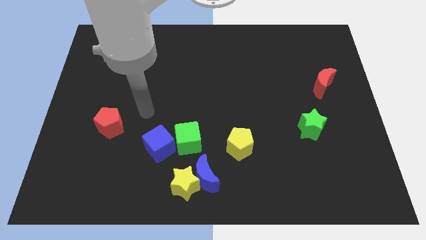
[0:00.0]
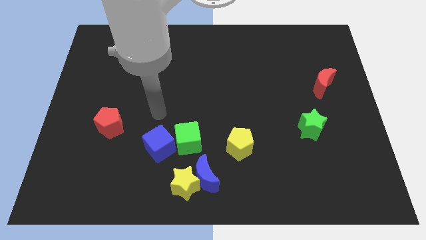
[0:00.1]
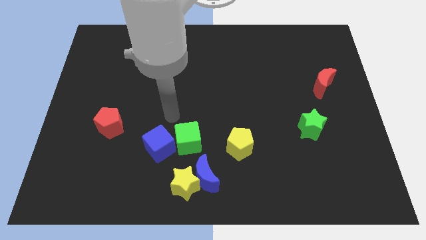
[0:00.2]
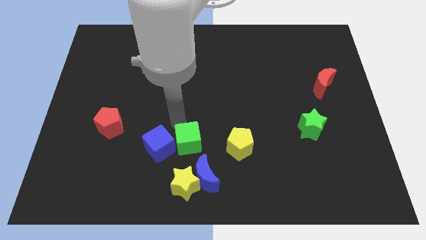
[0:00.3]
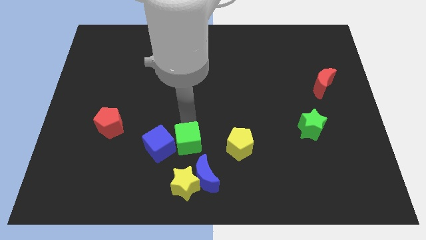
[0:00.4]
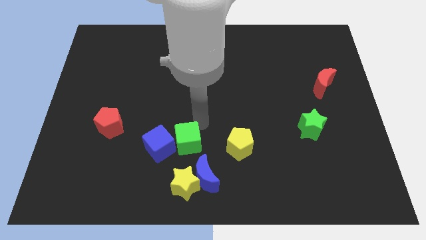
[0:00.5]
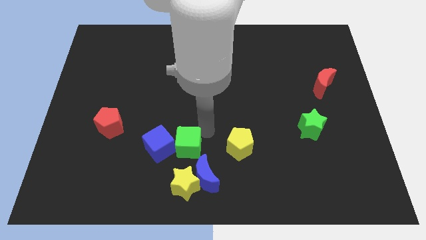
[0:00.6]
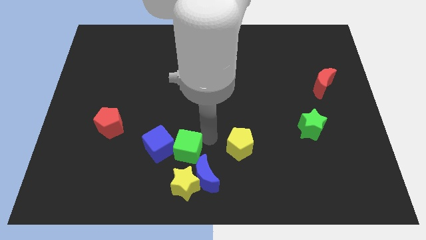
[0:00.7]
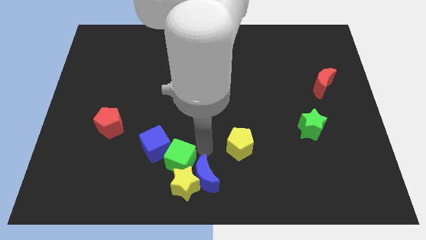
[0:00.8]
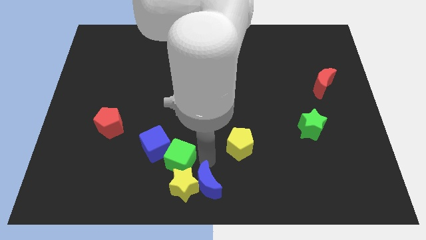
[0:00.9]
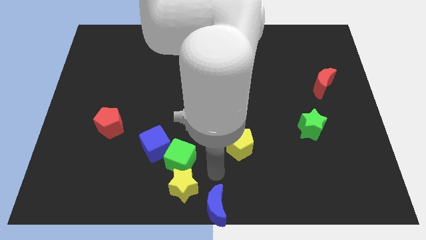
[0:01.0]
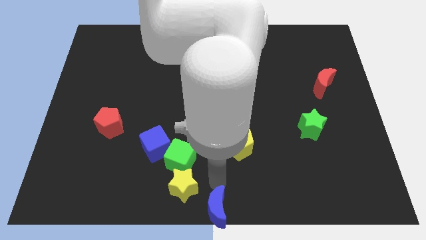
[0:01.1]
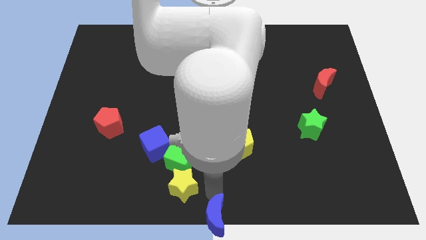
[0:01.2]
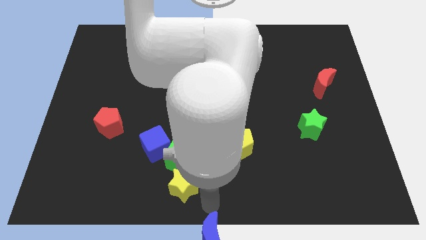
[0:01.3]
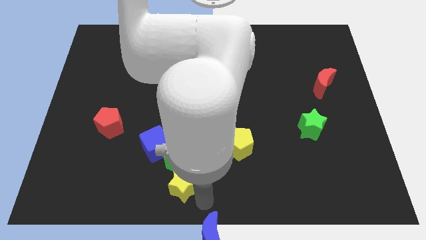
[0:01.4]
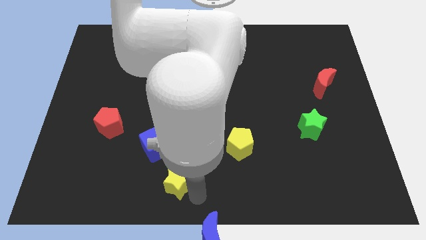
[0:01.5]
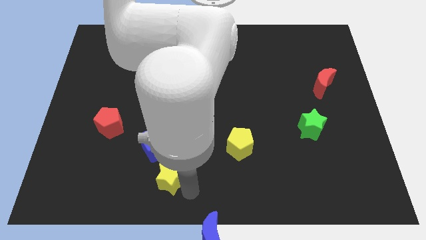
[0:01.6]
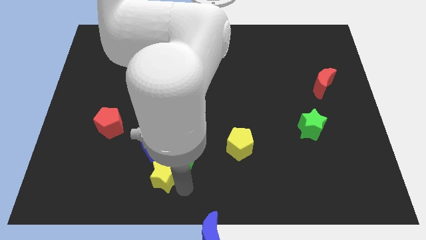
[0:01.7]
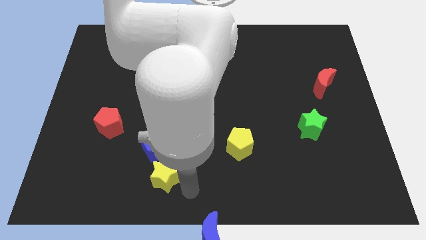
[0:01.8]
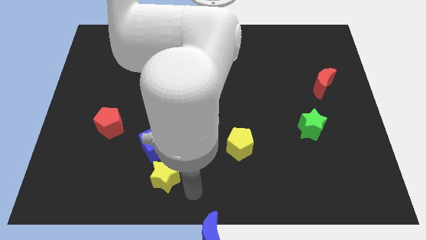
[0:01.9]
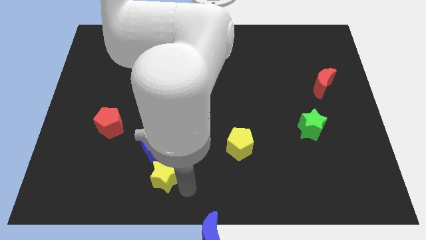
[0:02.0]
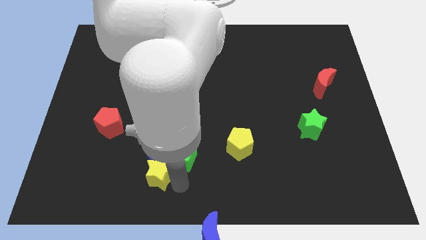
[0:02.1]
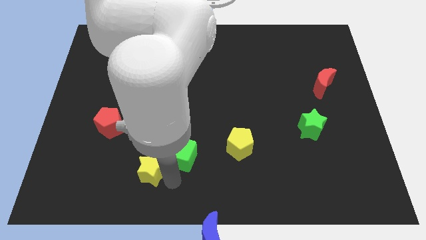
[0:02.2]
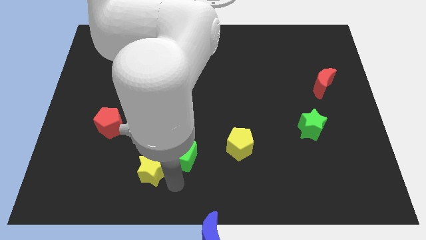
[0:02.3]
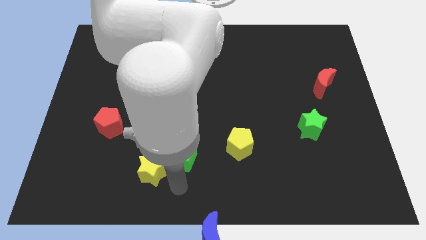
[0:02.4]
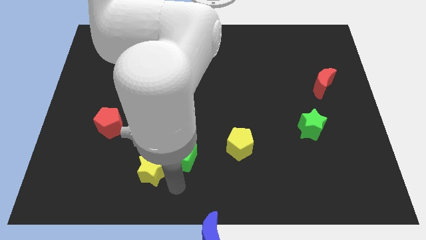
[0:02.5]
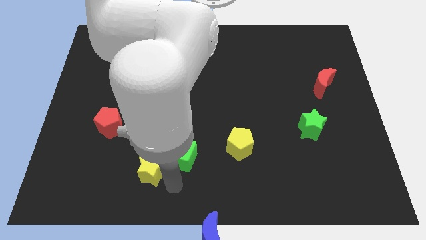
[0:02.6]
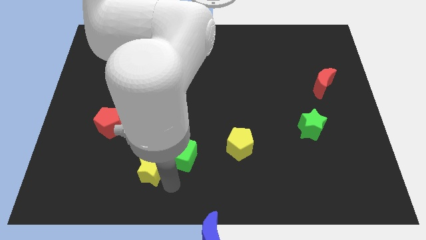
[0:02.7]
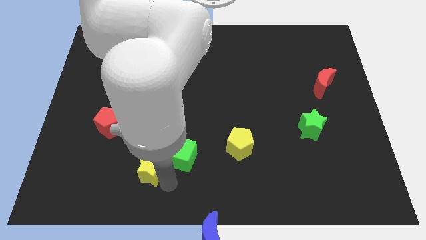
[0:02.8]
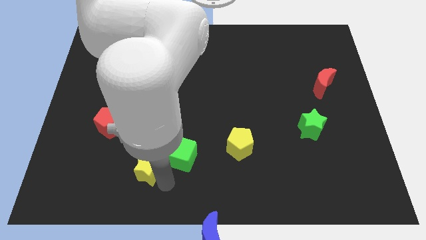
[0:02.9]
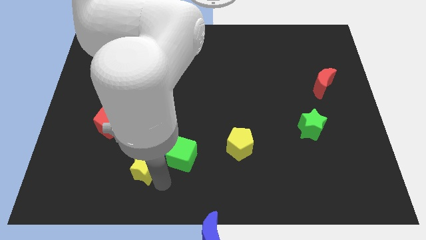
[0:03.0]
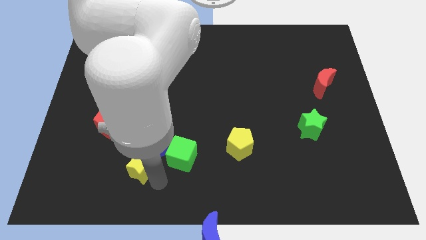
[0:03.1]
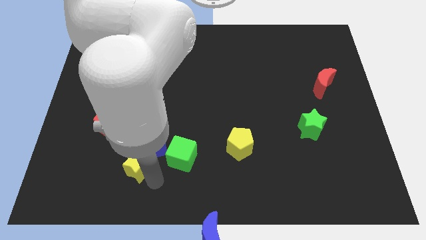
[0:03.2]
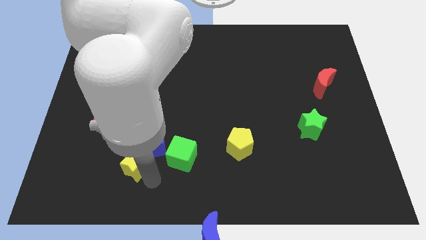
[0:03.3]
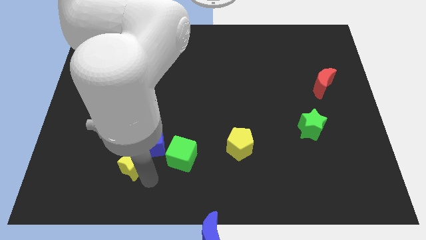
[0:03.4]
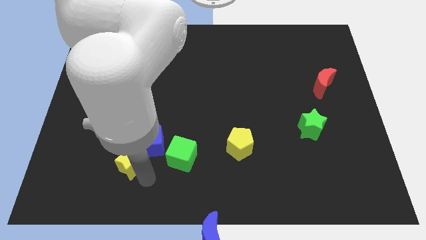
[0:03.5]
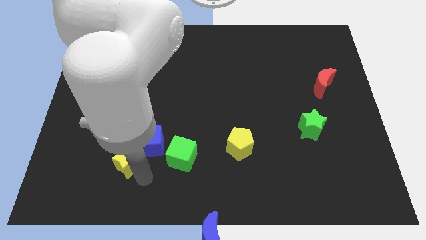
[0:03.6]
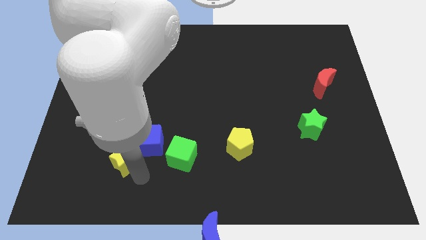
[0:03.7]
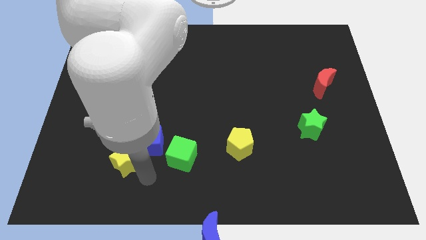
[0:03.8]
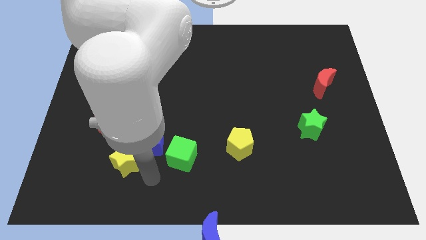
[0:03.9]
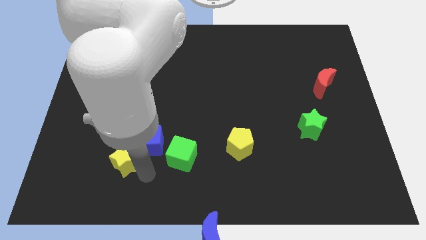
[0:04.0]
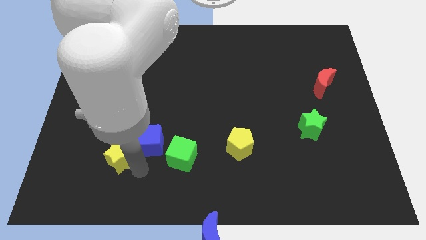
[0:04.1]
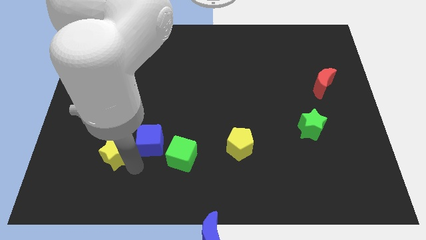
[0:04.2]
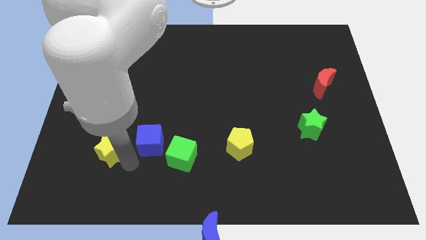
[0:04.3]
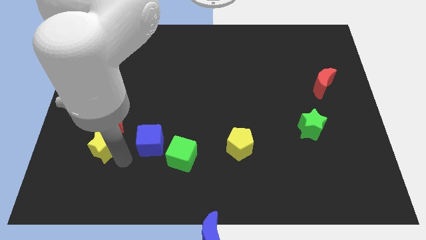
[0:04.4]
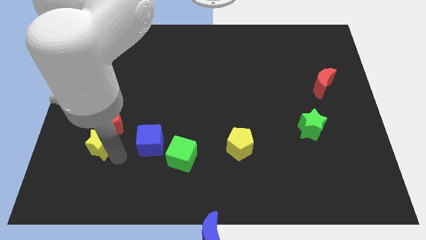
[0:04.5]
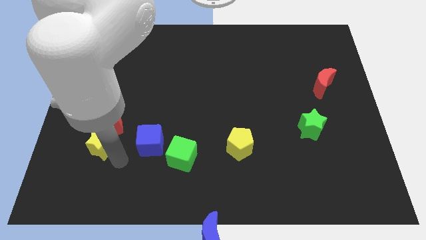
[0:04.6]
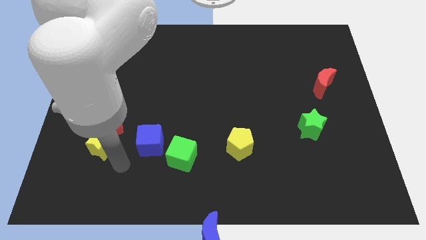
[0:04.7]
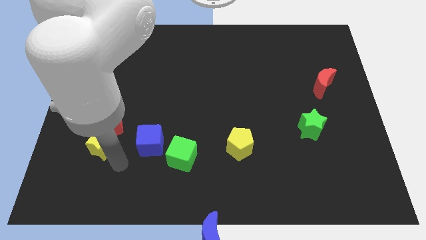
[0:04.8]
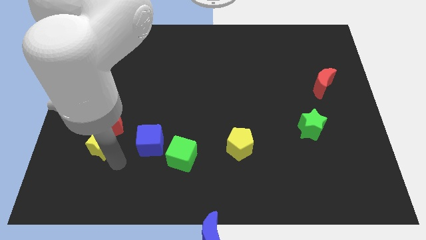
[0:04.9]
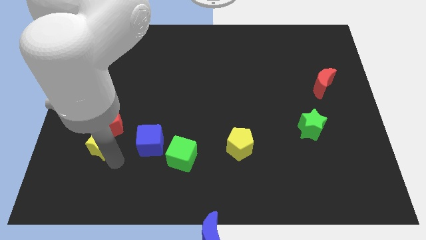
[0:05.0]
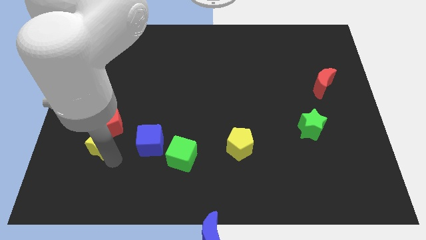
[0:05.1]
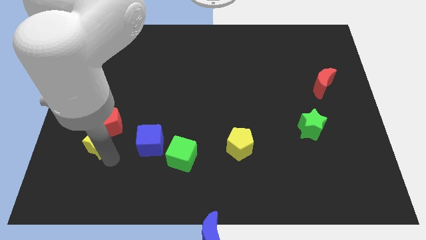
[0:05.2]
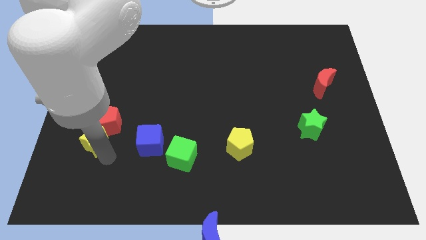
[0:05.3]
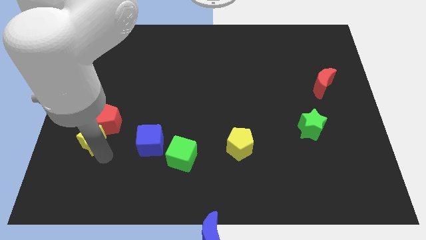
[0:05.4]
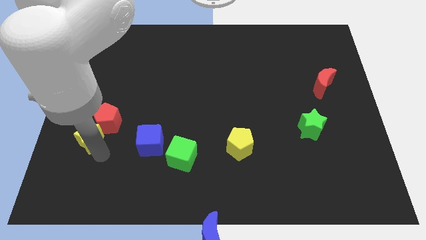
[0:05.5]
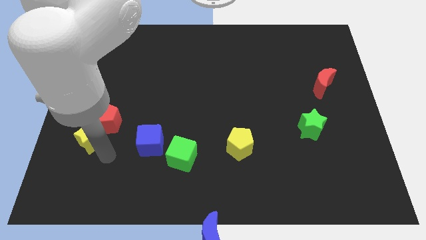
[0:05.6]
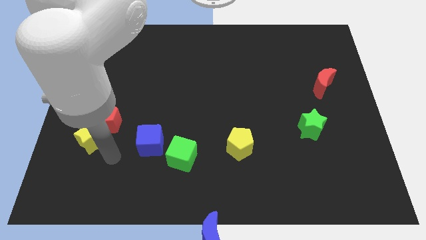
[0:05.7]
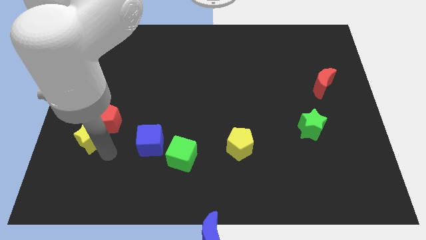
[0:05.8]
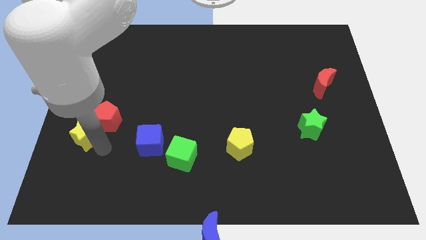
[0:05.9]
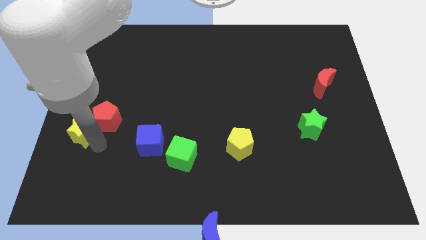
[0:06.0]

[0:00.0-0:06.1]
push the yellow star to the left side of the board
